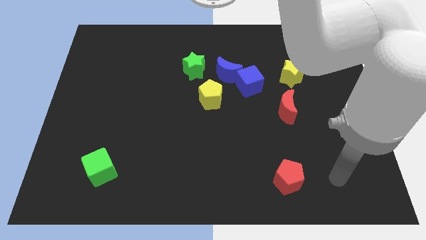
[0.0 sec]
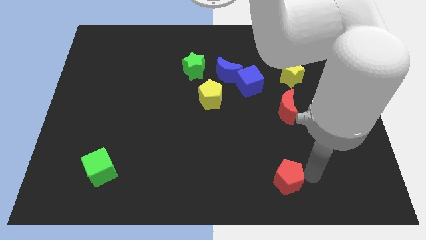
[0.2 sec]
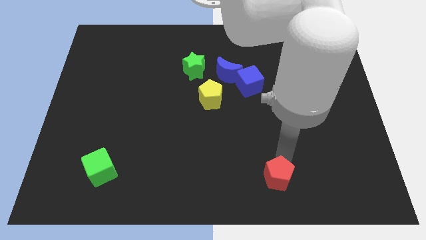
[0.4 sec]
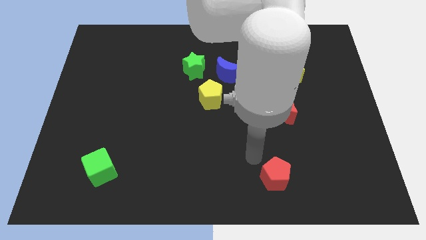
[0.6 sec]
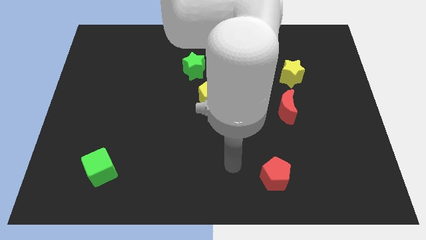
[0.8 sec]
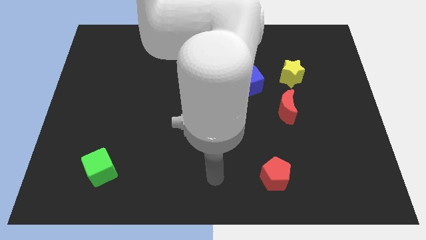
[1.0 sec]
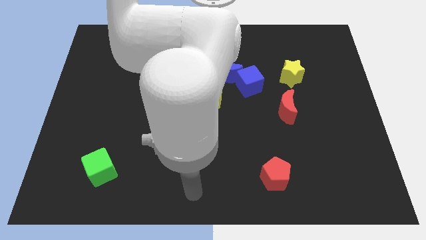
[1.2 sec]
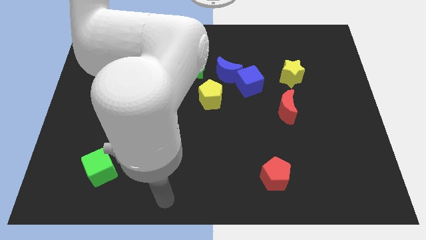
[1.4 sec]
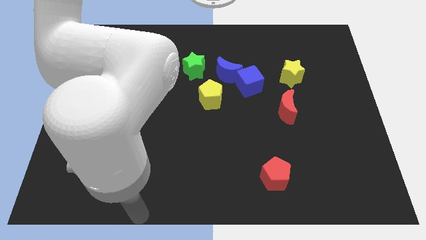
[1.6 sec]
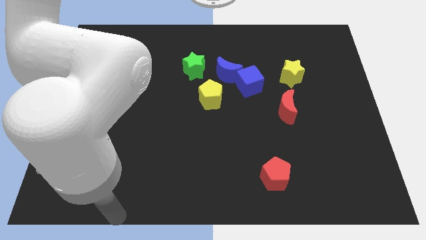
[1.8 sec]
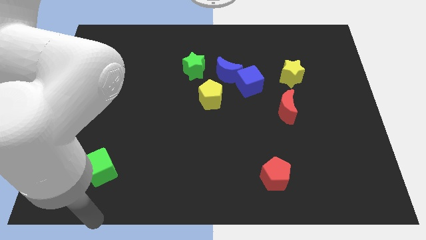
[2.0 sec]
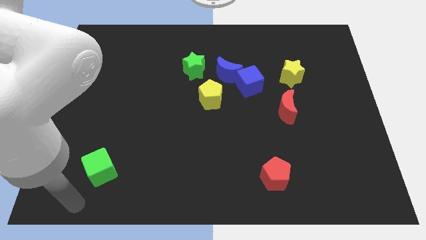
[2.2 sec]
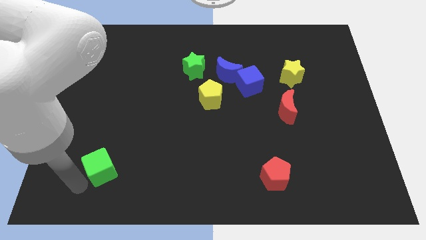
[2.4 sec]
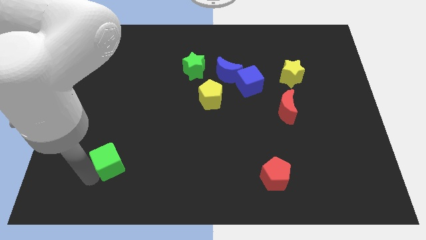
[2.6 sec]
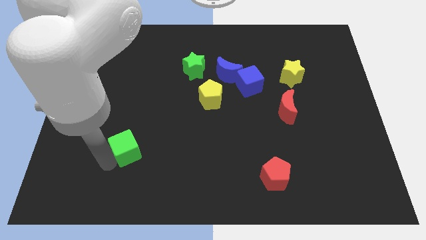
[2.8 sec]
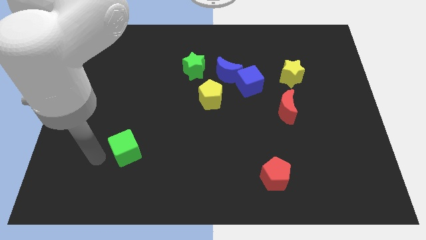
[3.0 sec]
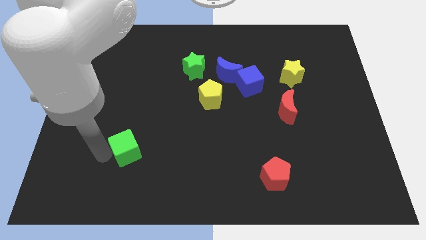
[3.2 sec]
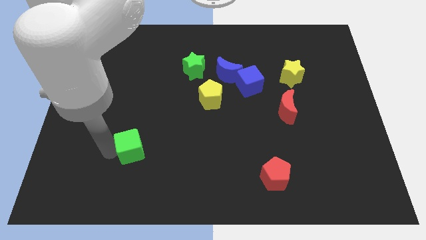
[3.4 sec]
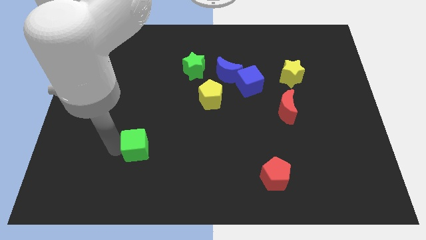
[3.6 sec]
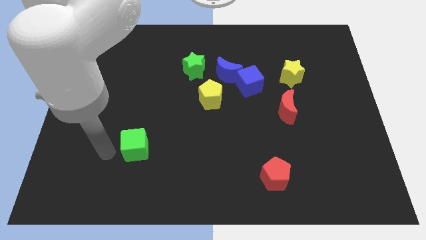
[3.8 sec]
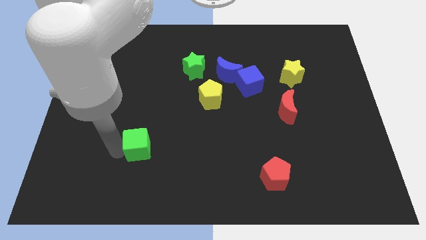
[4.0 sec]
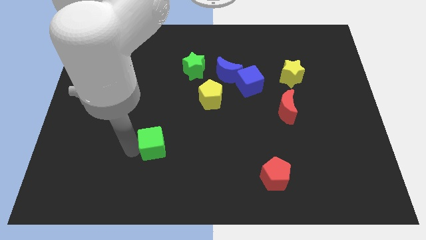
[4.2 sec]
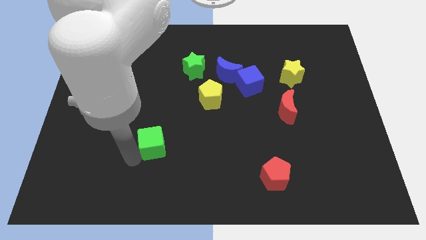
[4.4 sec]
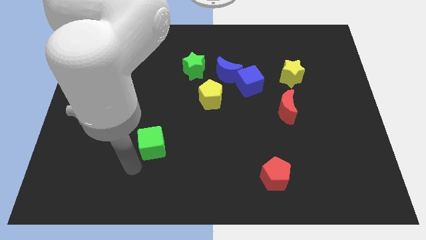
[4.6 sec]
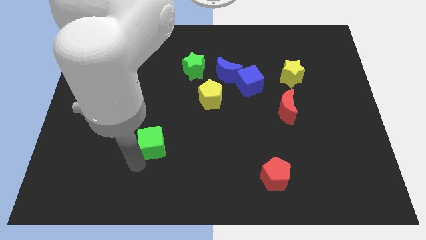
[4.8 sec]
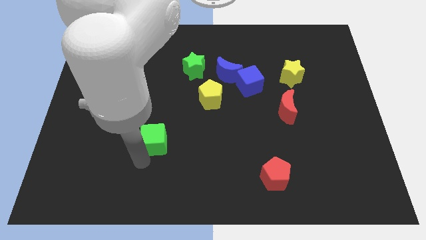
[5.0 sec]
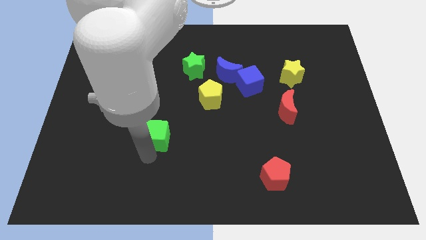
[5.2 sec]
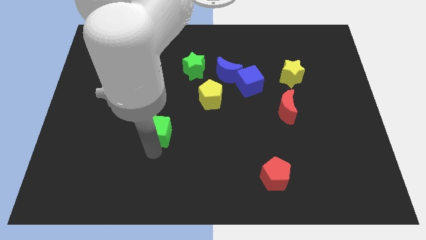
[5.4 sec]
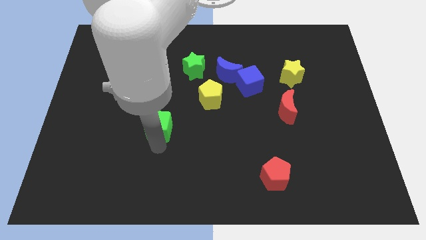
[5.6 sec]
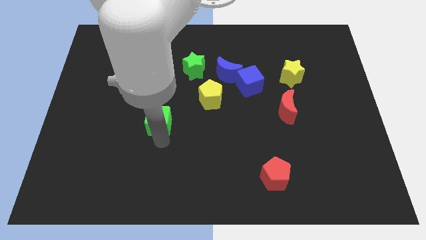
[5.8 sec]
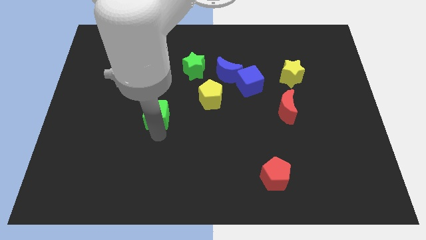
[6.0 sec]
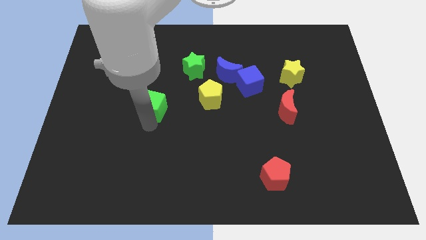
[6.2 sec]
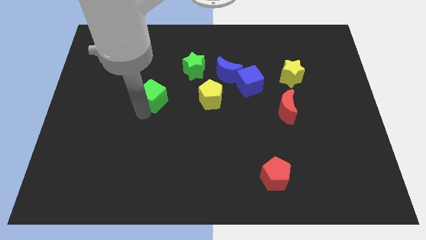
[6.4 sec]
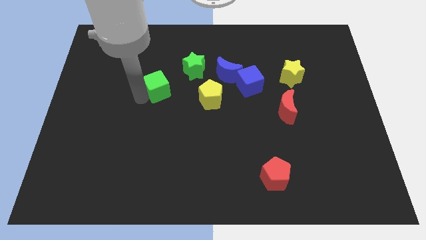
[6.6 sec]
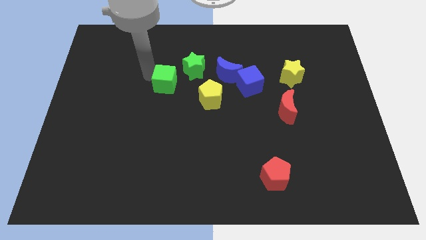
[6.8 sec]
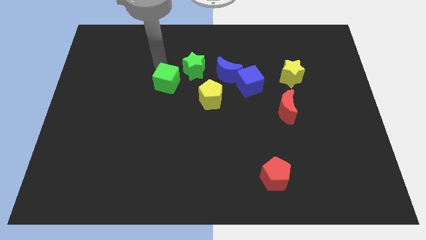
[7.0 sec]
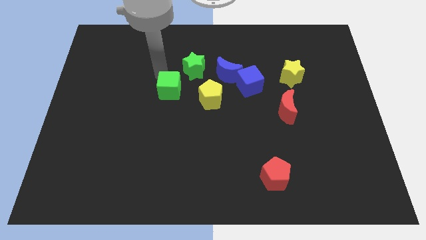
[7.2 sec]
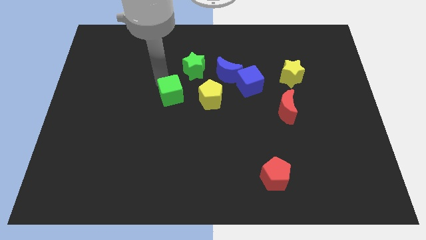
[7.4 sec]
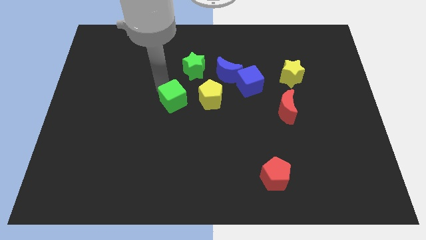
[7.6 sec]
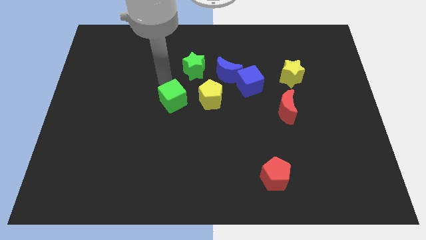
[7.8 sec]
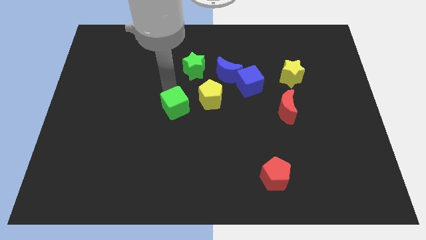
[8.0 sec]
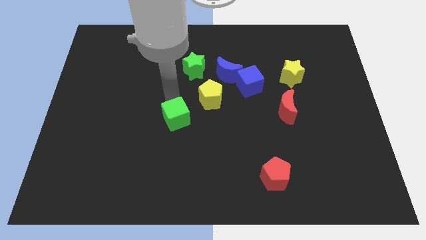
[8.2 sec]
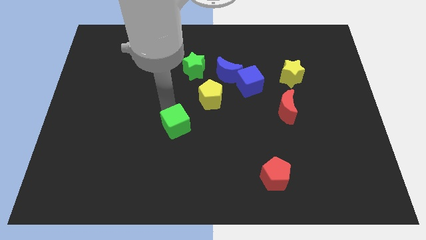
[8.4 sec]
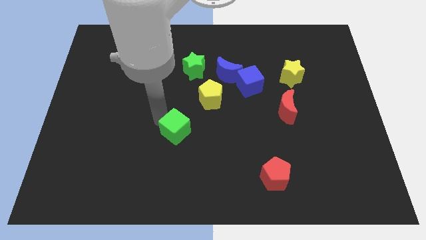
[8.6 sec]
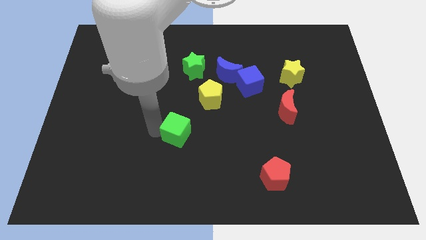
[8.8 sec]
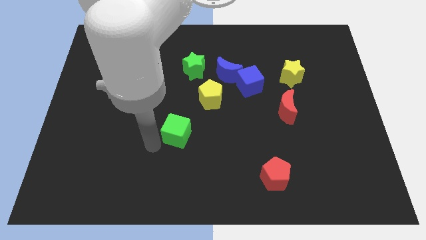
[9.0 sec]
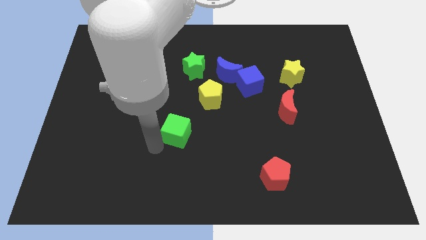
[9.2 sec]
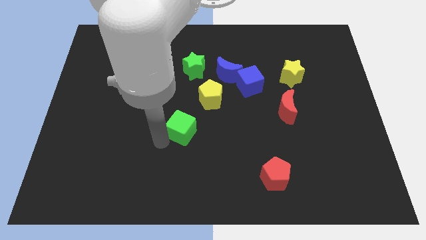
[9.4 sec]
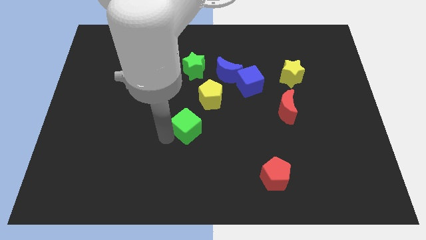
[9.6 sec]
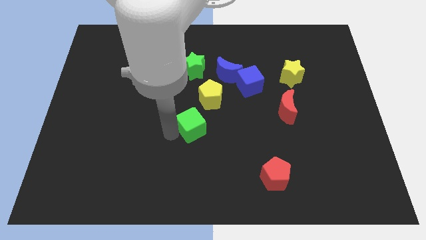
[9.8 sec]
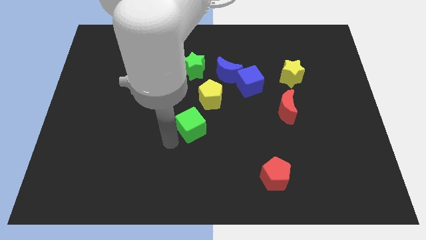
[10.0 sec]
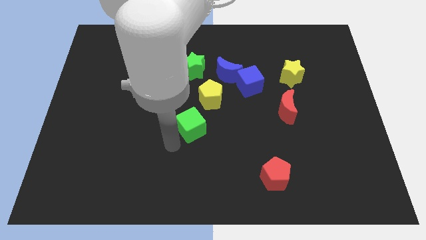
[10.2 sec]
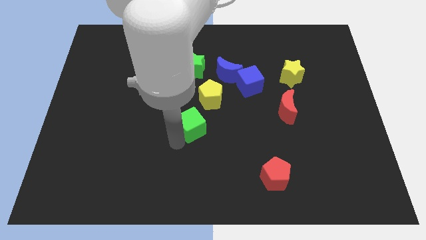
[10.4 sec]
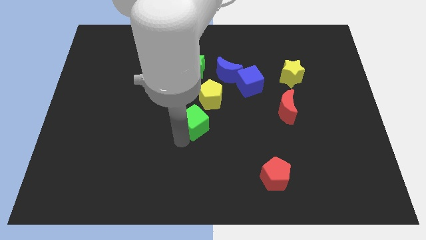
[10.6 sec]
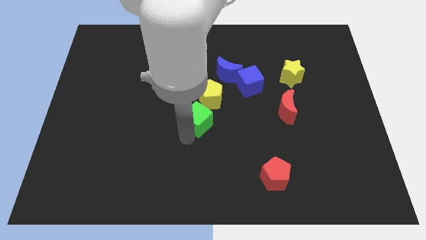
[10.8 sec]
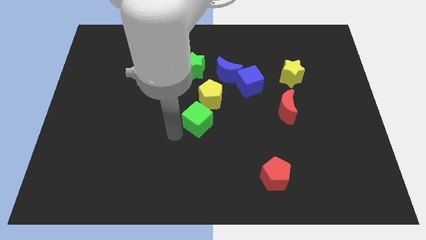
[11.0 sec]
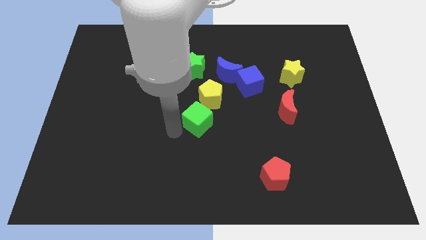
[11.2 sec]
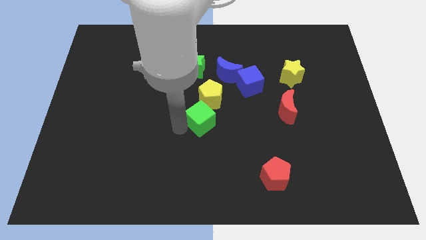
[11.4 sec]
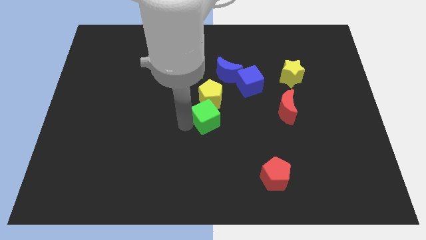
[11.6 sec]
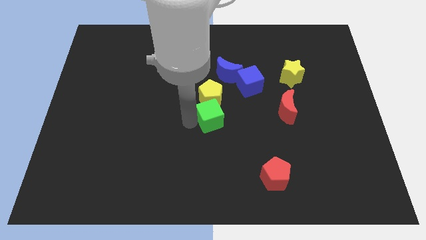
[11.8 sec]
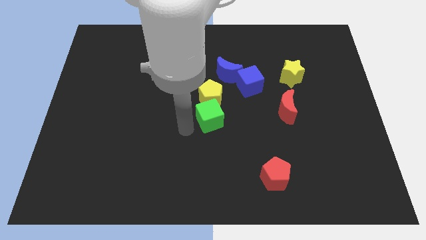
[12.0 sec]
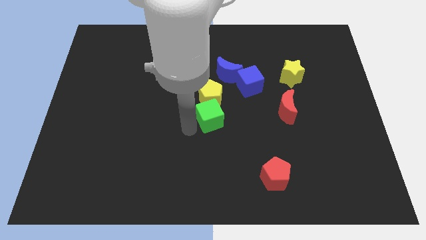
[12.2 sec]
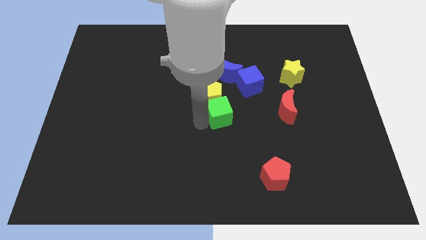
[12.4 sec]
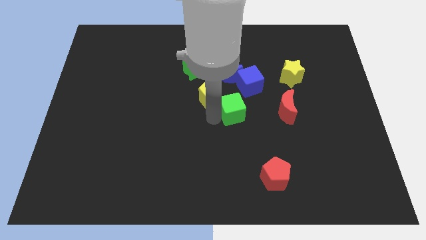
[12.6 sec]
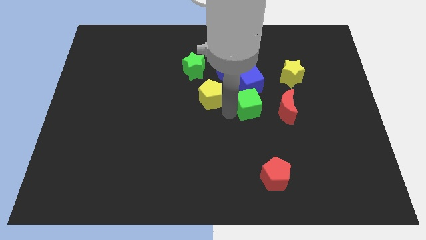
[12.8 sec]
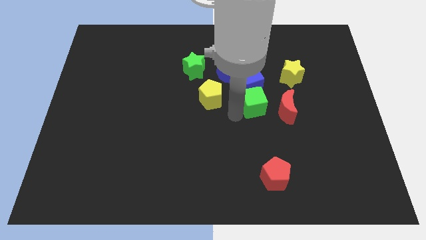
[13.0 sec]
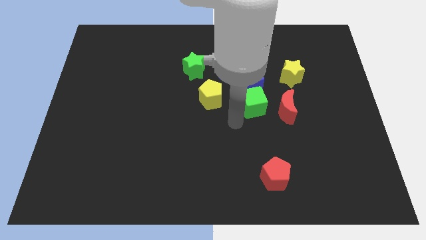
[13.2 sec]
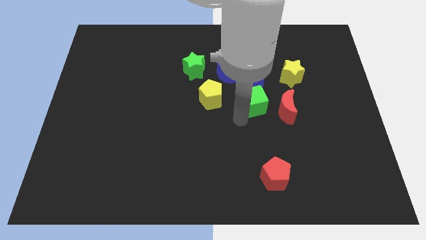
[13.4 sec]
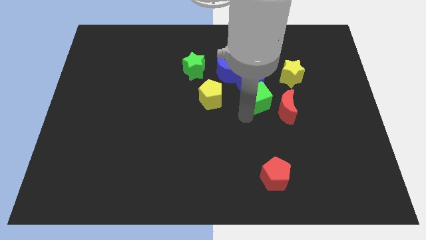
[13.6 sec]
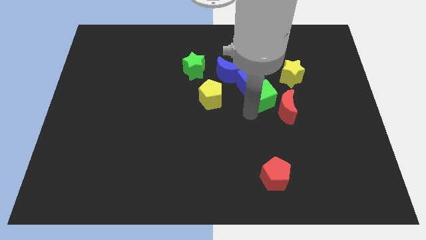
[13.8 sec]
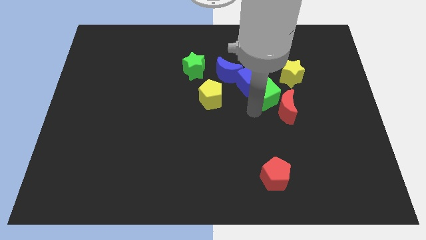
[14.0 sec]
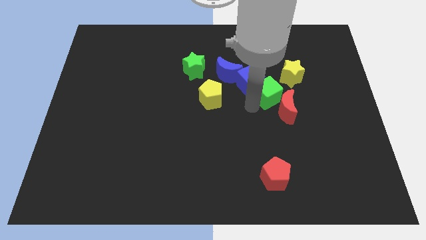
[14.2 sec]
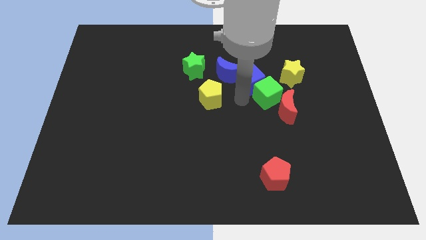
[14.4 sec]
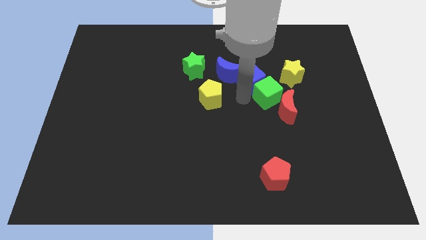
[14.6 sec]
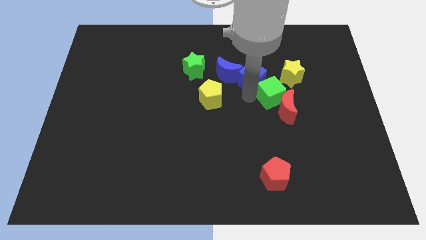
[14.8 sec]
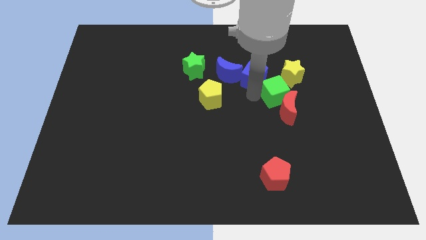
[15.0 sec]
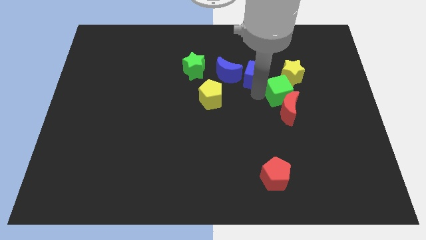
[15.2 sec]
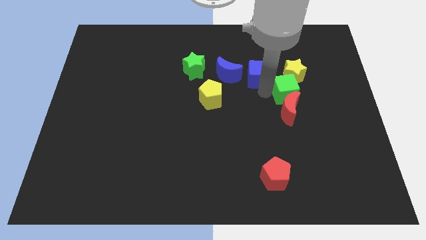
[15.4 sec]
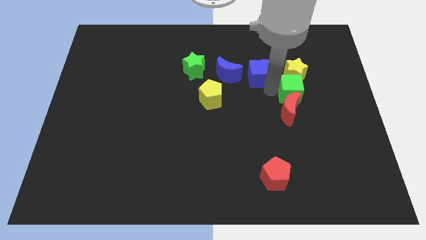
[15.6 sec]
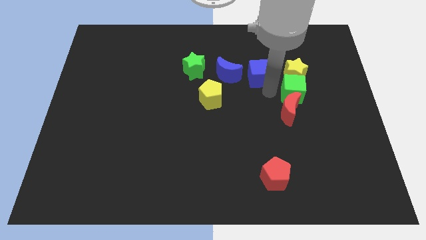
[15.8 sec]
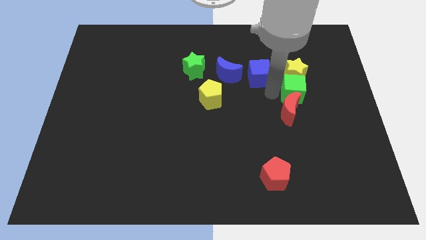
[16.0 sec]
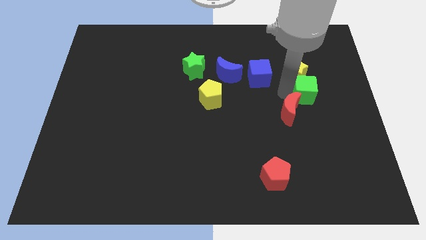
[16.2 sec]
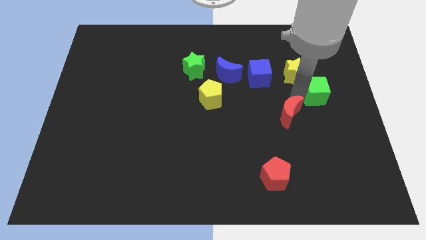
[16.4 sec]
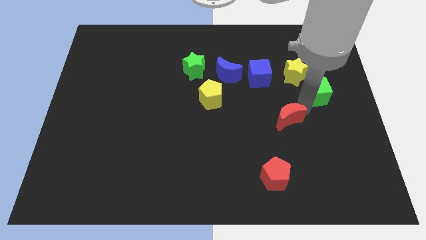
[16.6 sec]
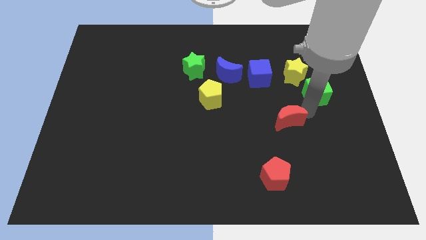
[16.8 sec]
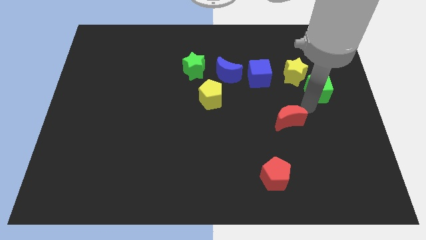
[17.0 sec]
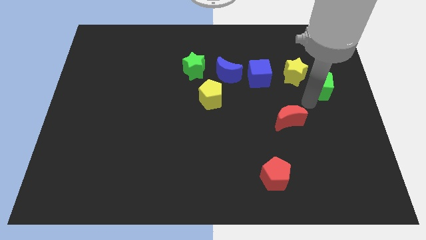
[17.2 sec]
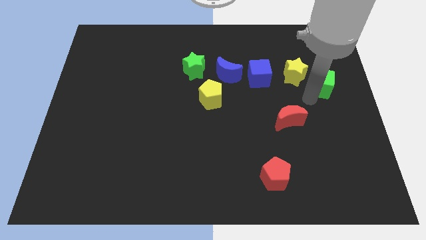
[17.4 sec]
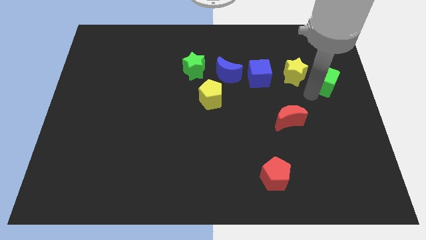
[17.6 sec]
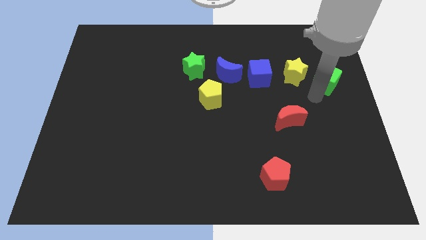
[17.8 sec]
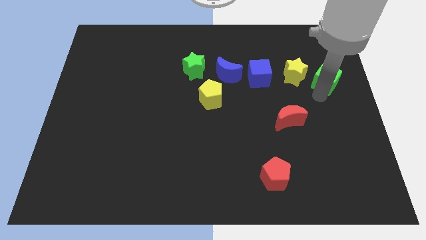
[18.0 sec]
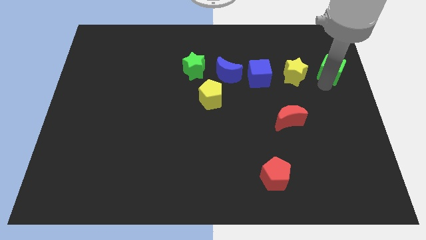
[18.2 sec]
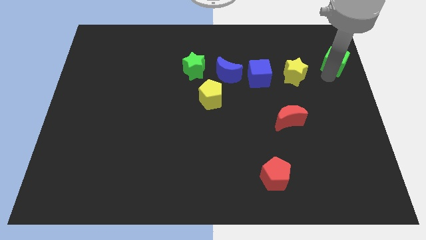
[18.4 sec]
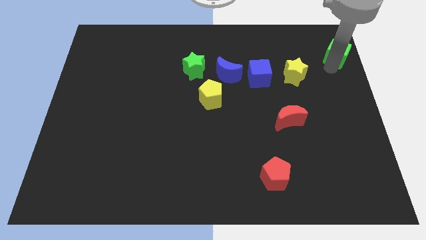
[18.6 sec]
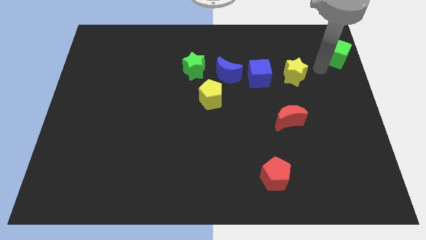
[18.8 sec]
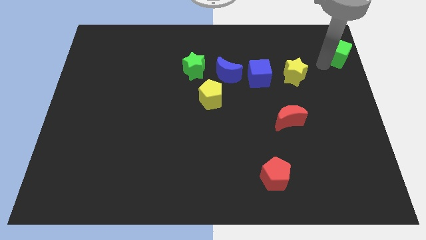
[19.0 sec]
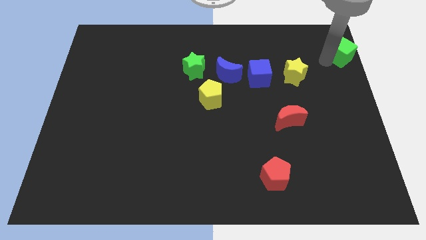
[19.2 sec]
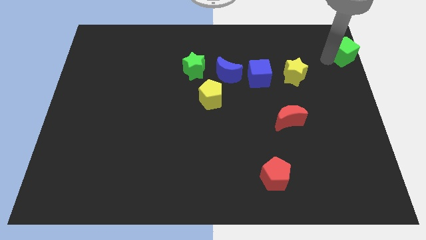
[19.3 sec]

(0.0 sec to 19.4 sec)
slide the green cube to the top right corner
